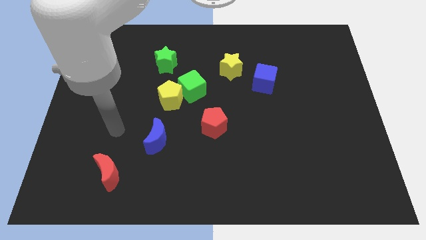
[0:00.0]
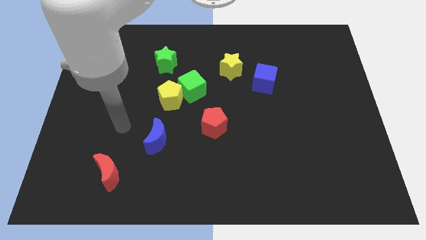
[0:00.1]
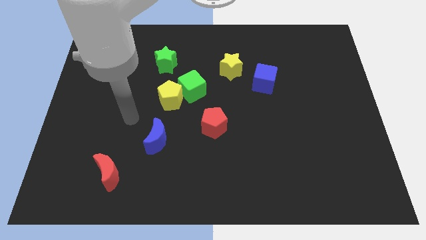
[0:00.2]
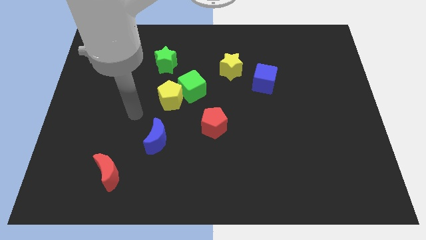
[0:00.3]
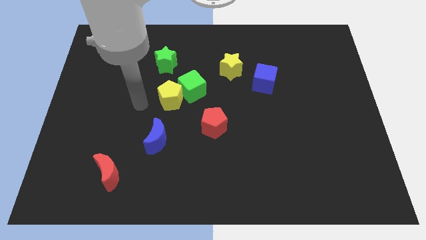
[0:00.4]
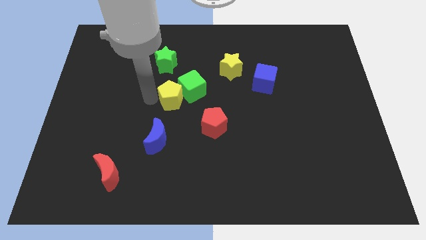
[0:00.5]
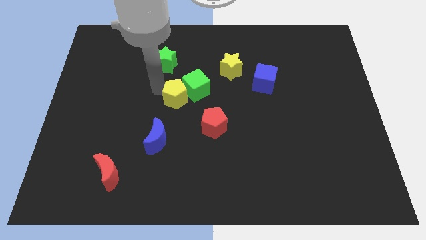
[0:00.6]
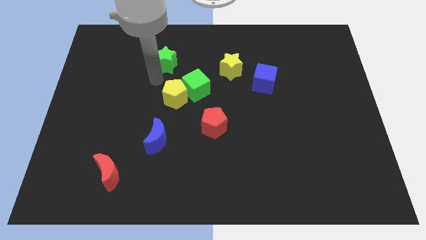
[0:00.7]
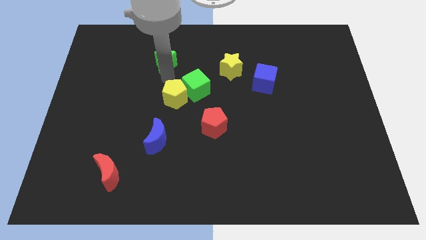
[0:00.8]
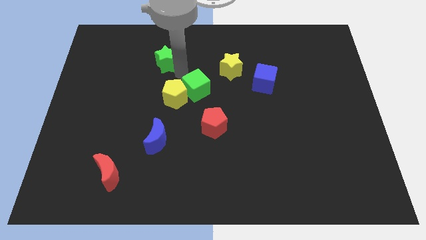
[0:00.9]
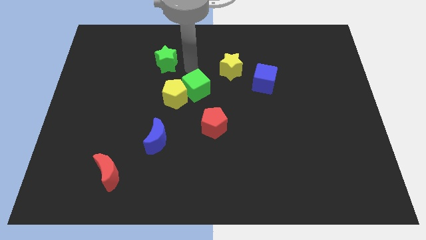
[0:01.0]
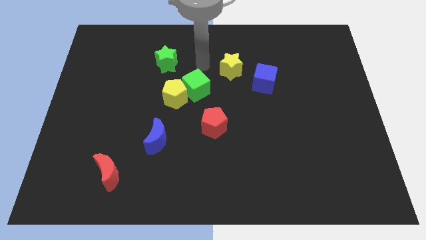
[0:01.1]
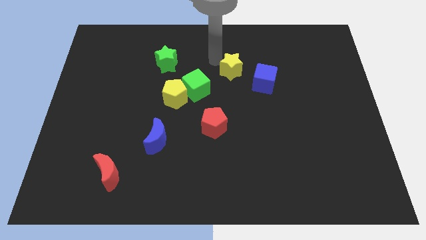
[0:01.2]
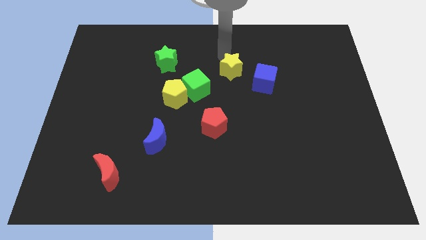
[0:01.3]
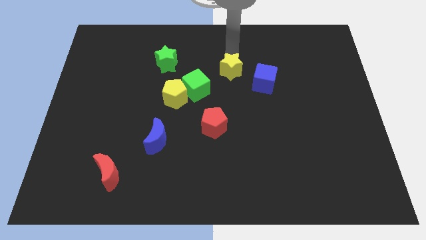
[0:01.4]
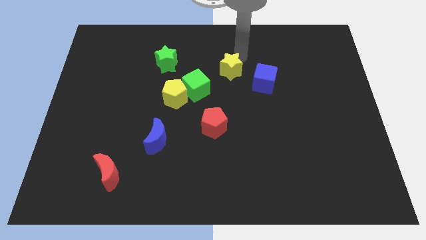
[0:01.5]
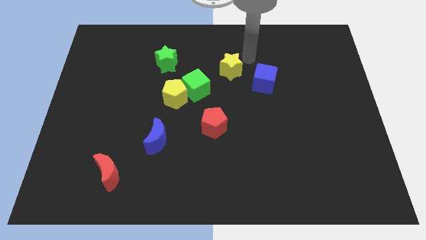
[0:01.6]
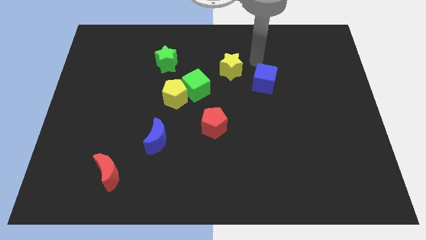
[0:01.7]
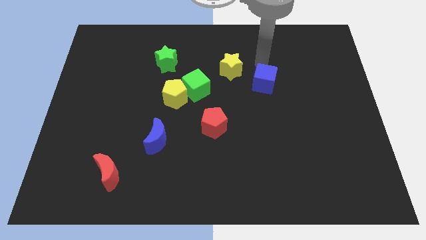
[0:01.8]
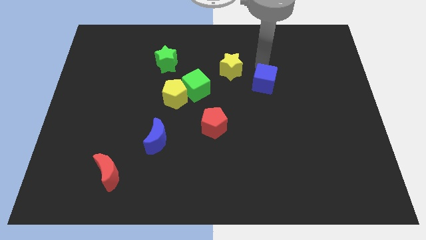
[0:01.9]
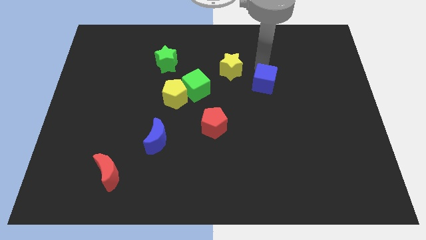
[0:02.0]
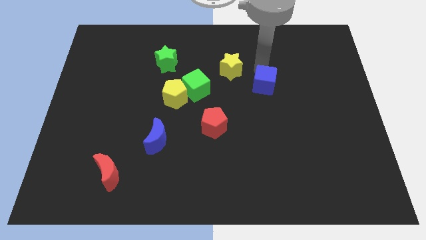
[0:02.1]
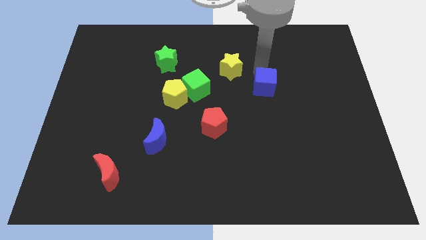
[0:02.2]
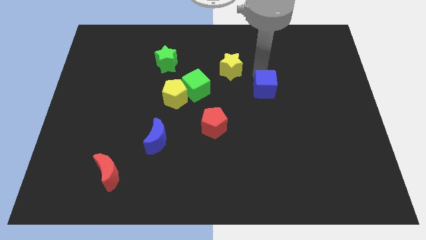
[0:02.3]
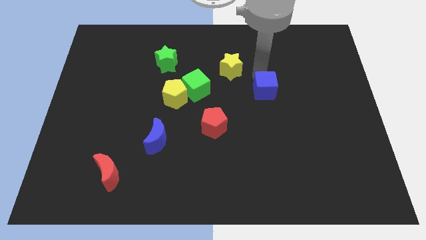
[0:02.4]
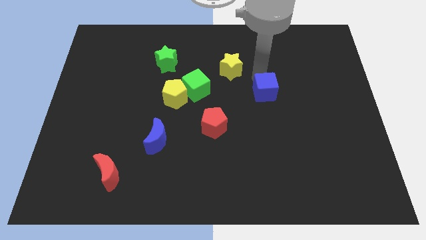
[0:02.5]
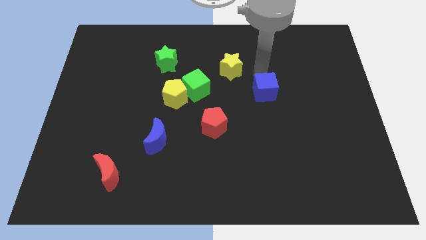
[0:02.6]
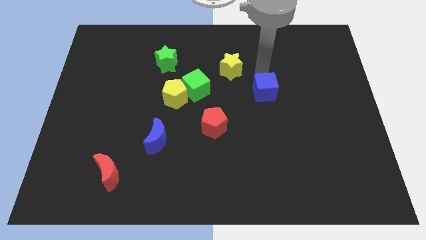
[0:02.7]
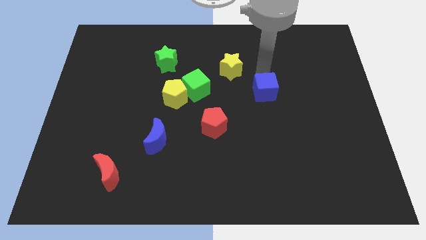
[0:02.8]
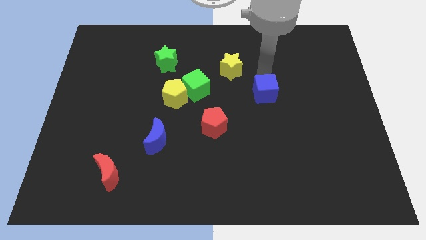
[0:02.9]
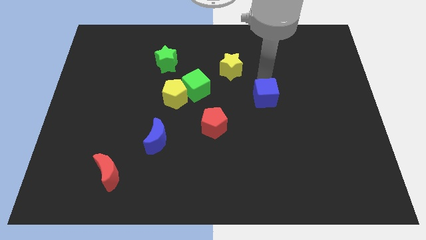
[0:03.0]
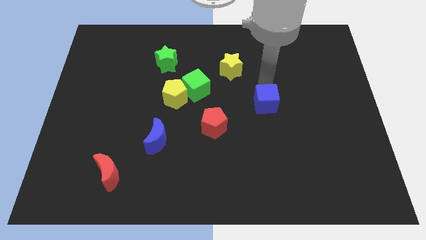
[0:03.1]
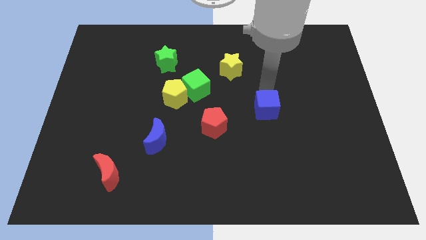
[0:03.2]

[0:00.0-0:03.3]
move the blue cube downwards a little

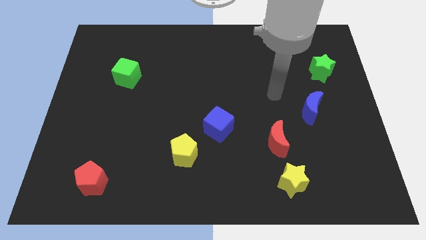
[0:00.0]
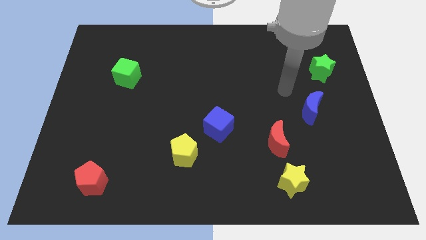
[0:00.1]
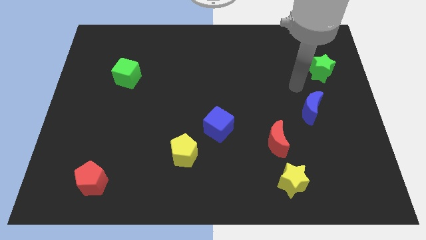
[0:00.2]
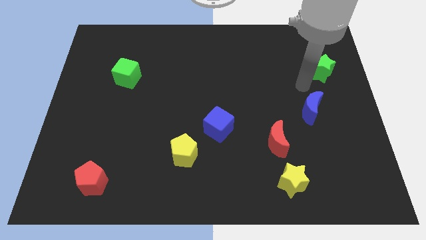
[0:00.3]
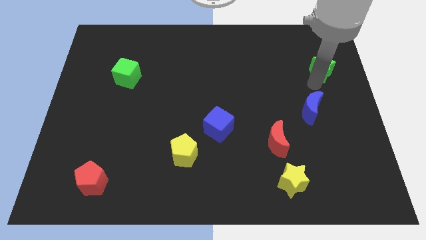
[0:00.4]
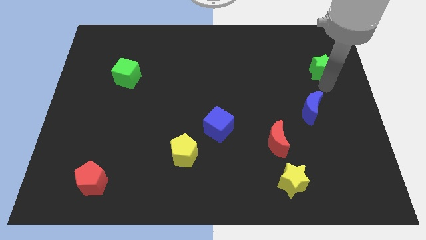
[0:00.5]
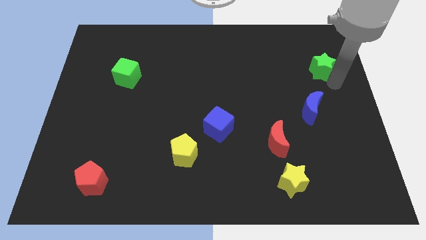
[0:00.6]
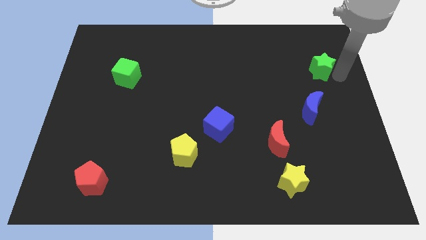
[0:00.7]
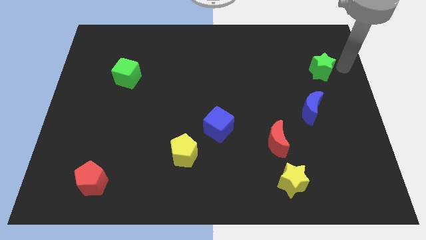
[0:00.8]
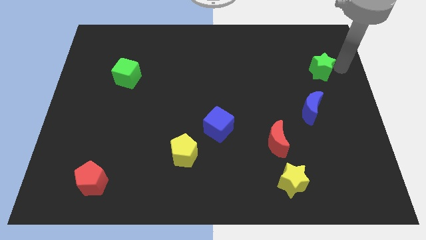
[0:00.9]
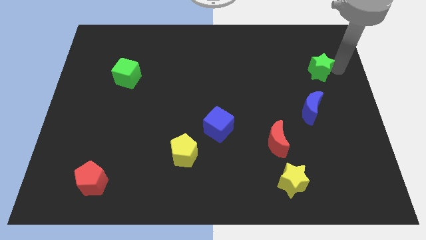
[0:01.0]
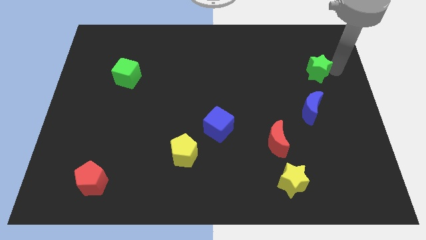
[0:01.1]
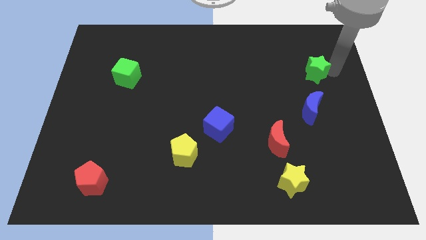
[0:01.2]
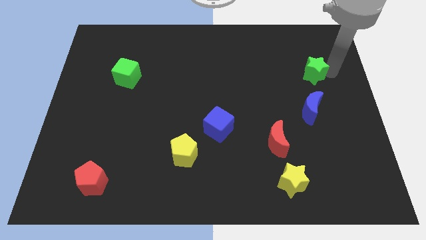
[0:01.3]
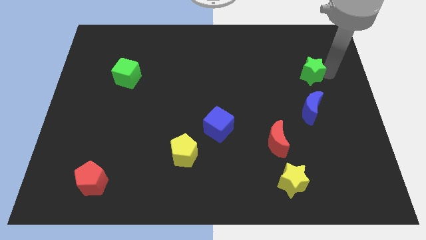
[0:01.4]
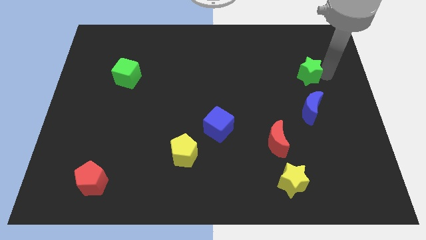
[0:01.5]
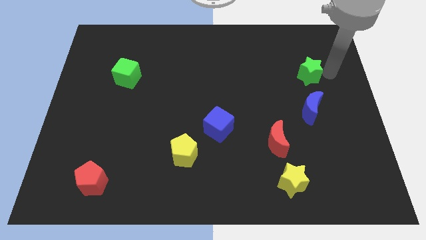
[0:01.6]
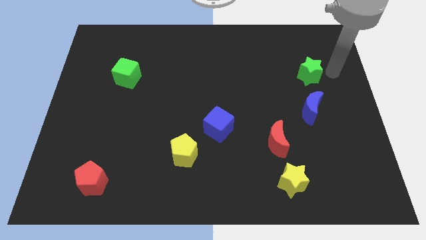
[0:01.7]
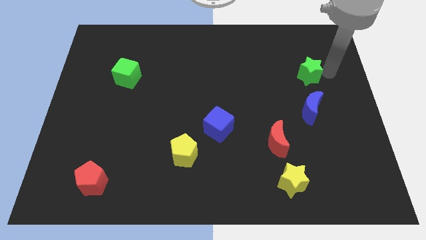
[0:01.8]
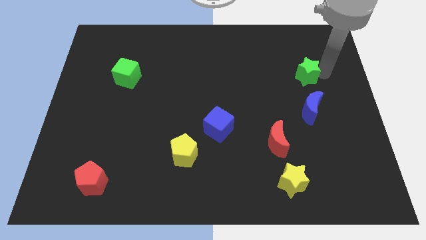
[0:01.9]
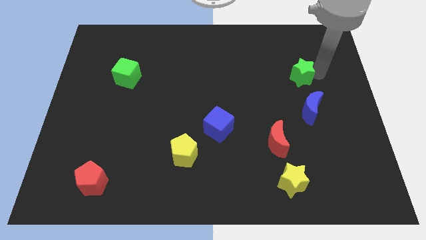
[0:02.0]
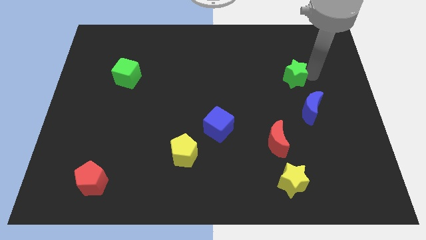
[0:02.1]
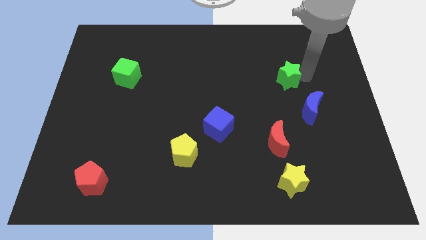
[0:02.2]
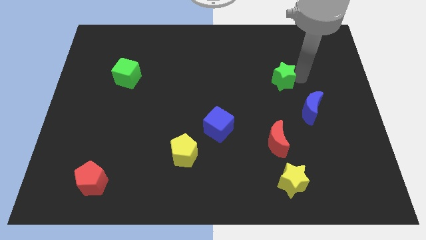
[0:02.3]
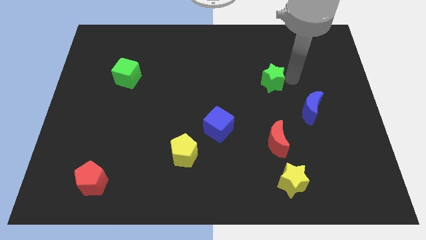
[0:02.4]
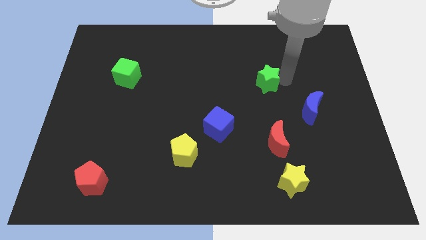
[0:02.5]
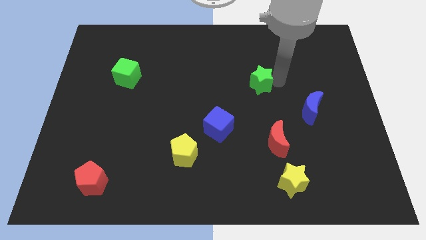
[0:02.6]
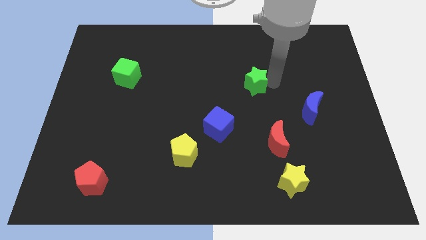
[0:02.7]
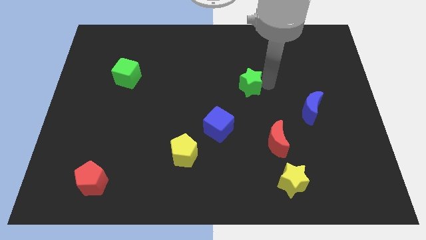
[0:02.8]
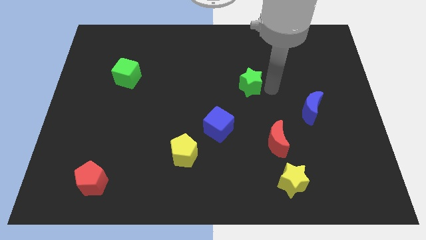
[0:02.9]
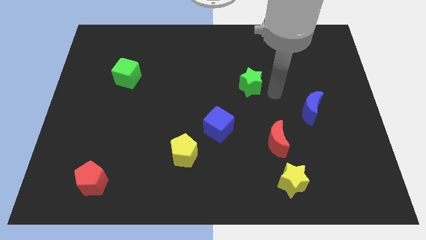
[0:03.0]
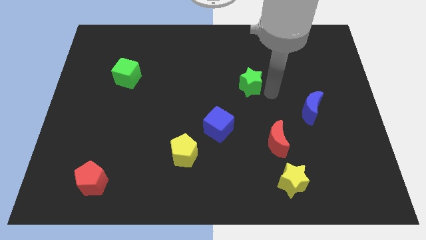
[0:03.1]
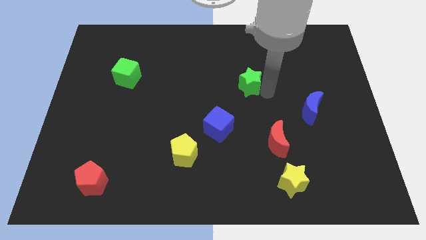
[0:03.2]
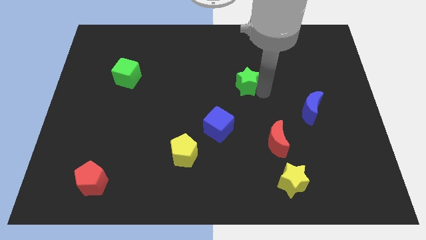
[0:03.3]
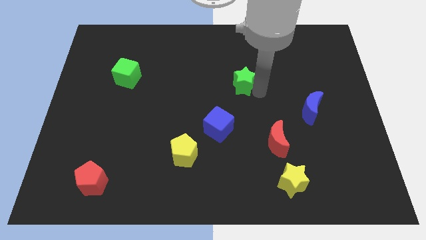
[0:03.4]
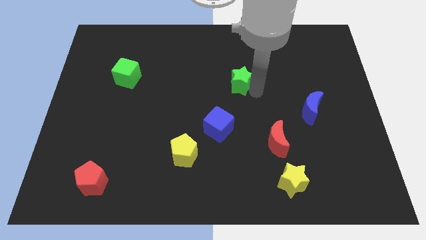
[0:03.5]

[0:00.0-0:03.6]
push the green star left

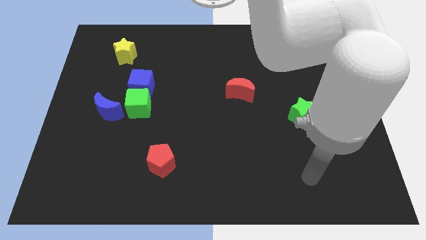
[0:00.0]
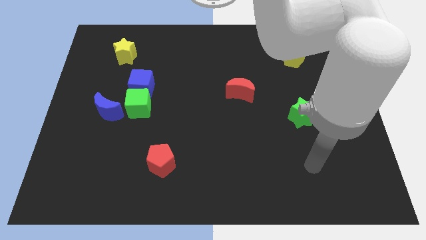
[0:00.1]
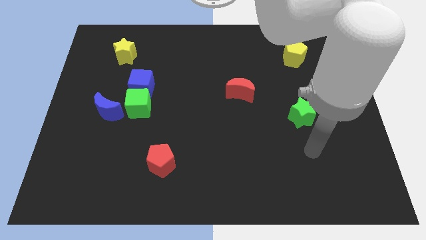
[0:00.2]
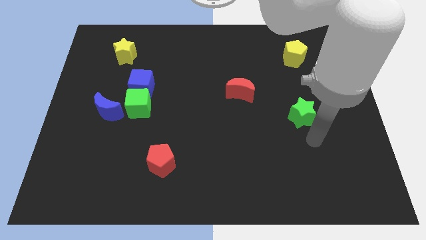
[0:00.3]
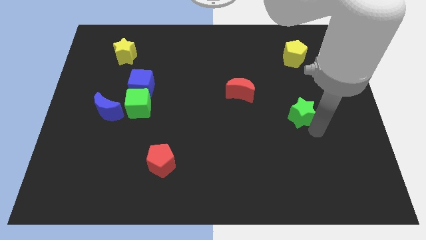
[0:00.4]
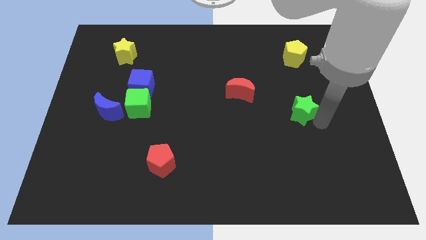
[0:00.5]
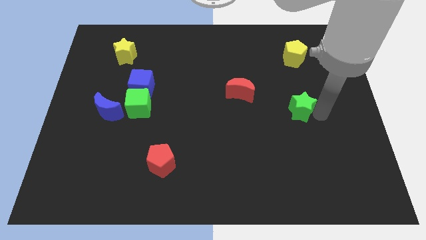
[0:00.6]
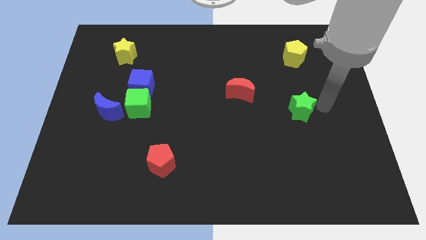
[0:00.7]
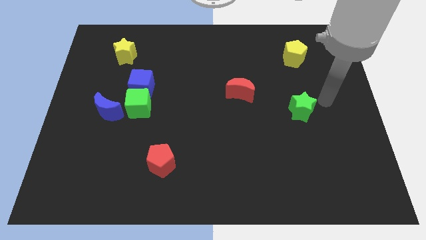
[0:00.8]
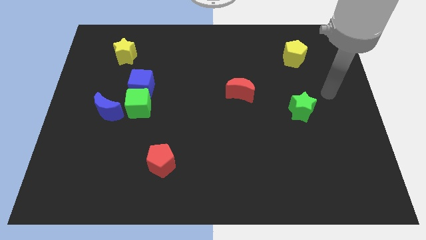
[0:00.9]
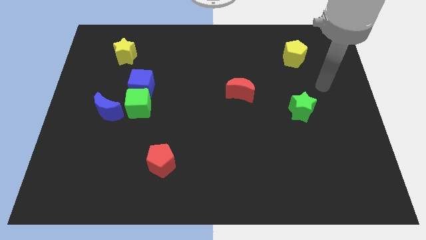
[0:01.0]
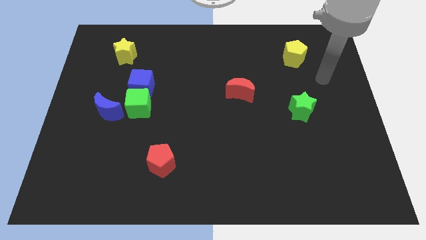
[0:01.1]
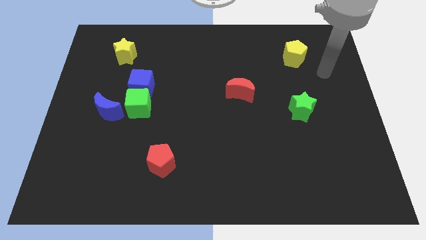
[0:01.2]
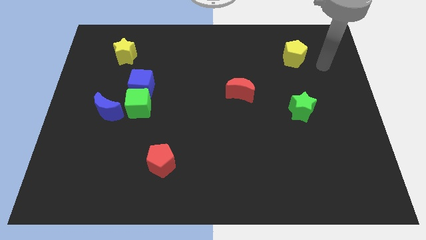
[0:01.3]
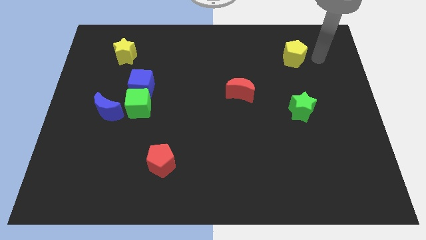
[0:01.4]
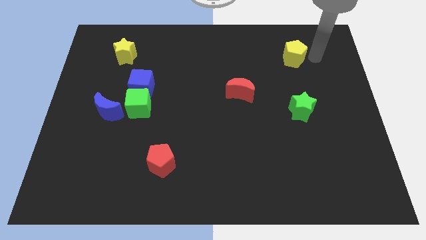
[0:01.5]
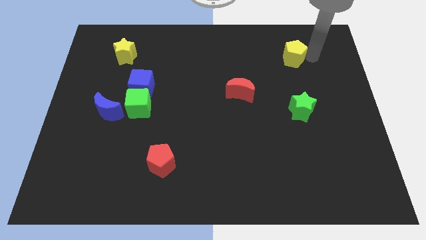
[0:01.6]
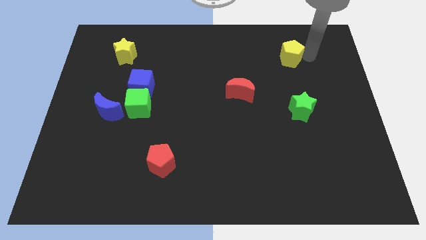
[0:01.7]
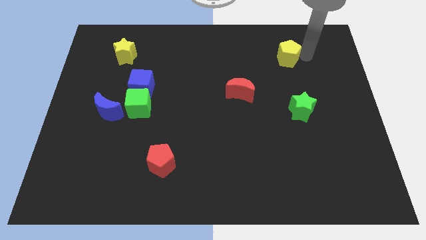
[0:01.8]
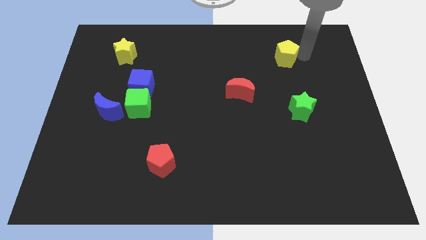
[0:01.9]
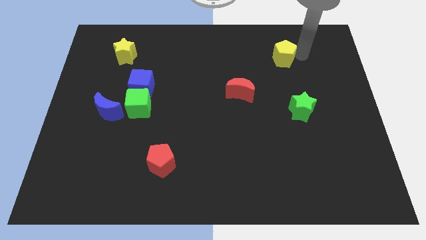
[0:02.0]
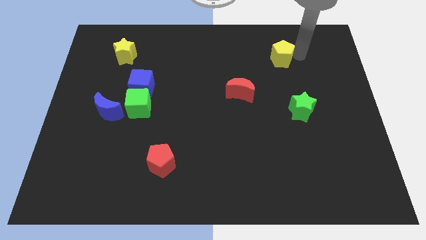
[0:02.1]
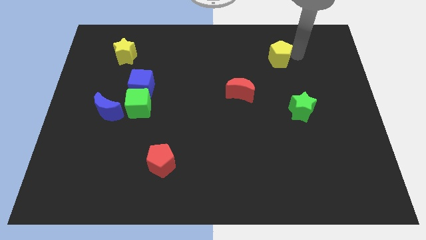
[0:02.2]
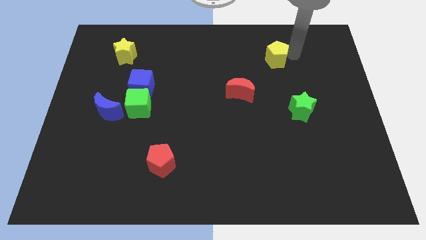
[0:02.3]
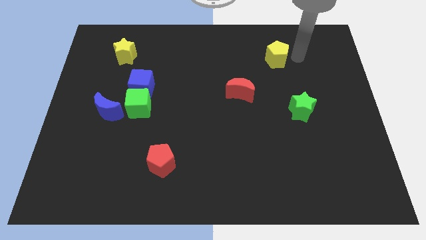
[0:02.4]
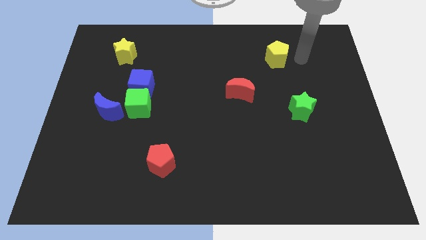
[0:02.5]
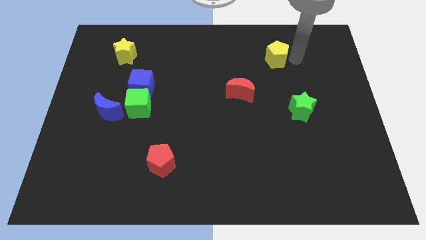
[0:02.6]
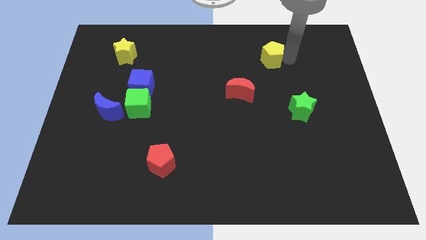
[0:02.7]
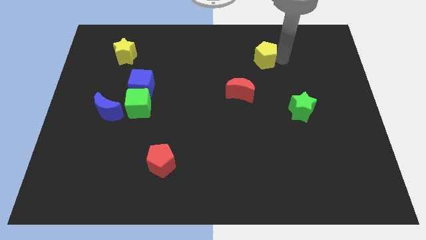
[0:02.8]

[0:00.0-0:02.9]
slightly push the yellow pentagon left
